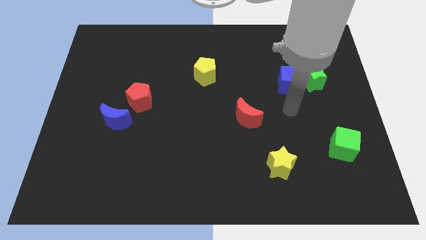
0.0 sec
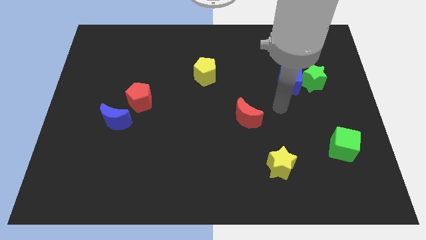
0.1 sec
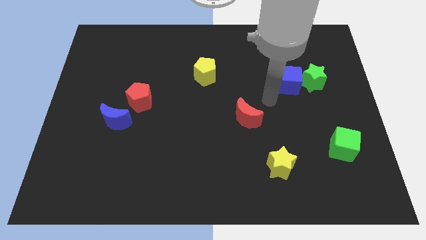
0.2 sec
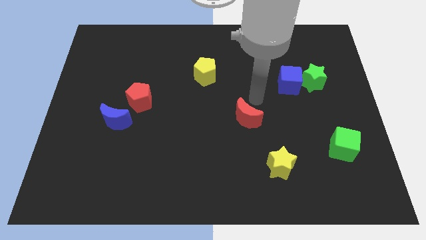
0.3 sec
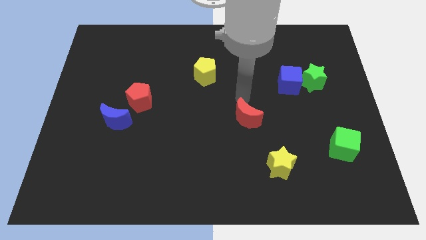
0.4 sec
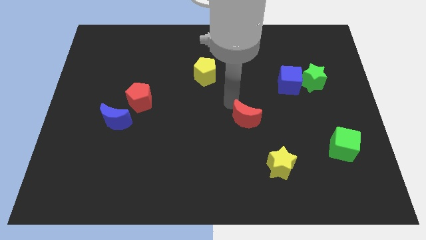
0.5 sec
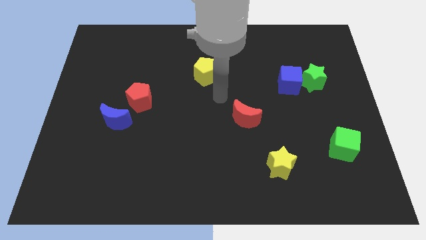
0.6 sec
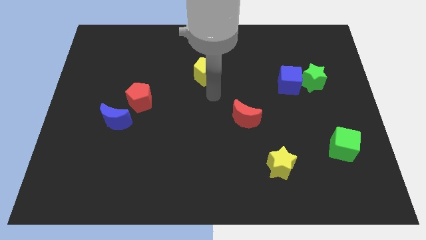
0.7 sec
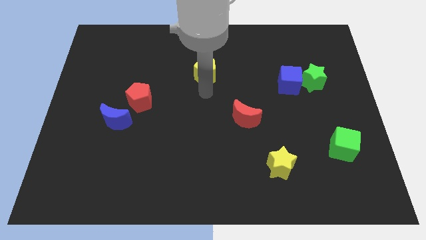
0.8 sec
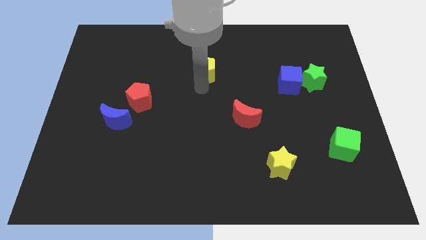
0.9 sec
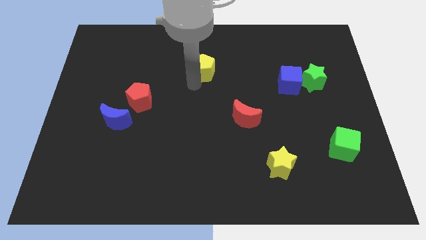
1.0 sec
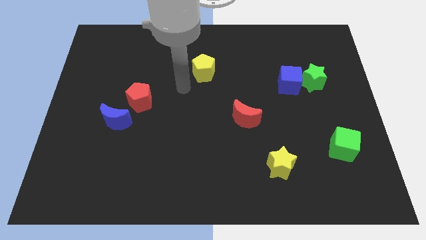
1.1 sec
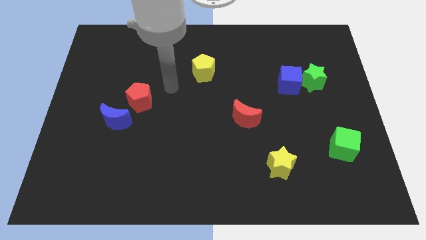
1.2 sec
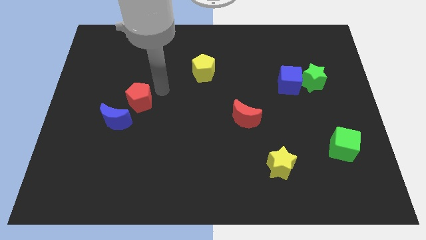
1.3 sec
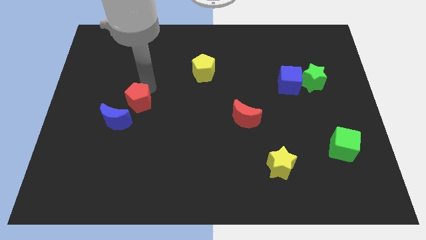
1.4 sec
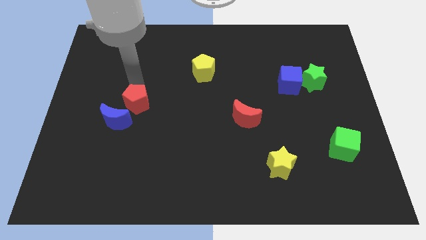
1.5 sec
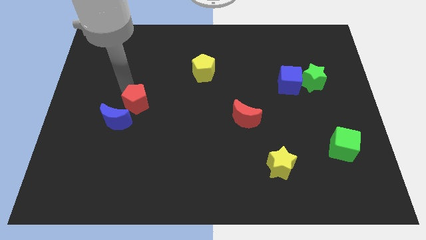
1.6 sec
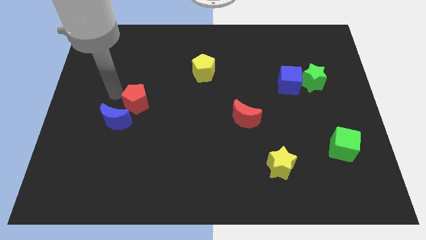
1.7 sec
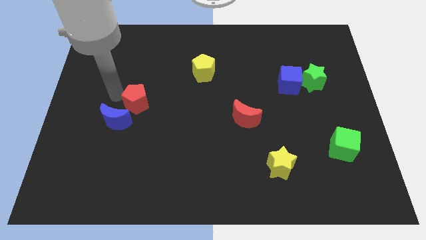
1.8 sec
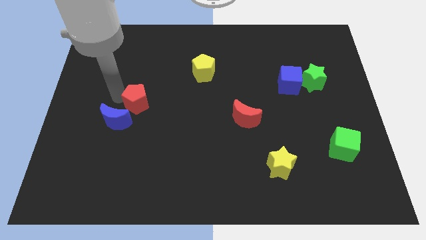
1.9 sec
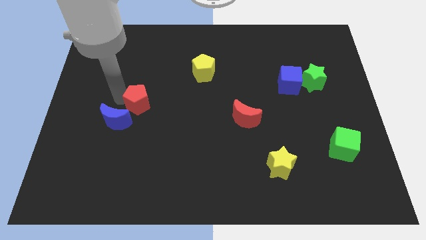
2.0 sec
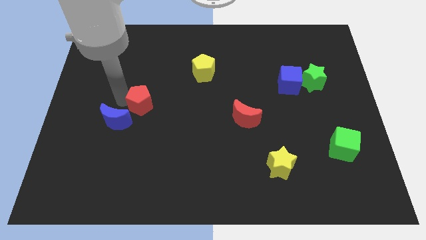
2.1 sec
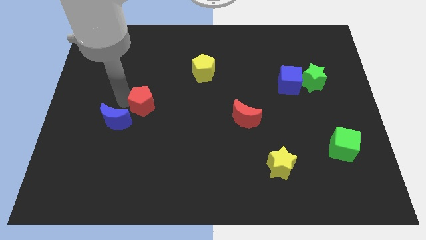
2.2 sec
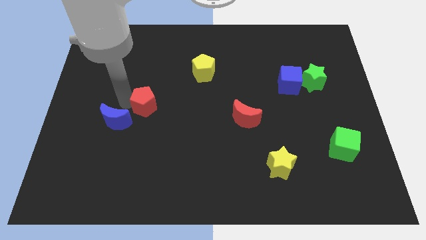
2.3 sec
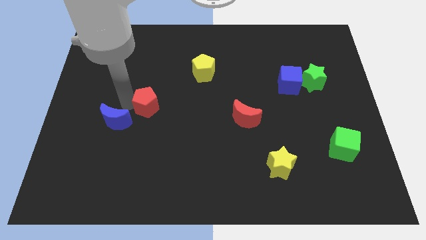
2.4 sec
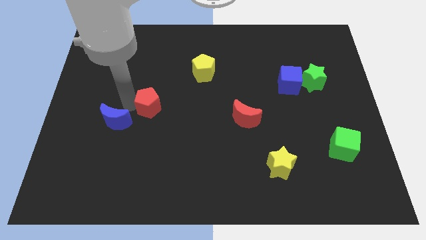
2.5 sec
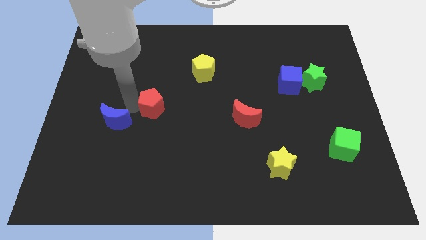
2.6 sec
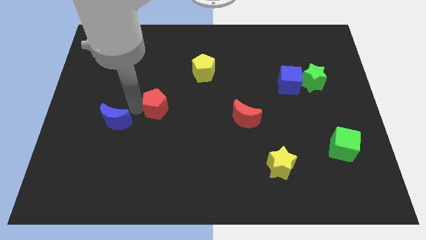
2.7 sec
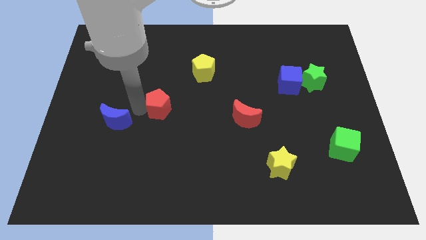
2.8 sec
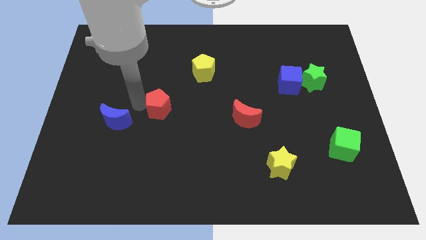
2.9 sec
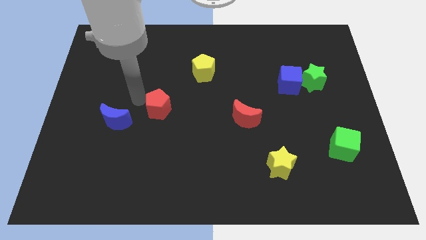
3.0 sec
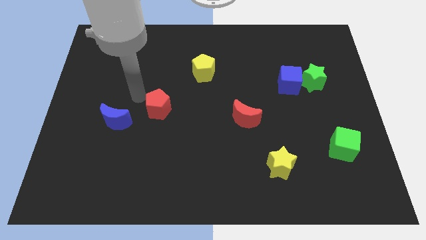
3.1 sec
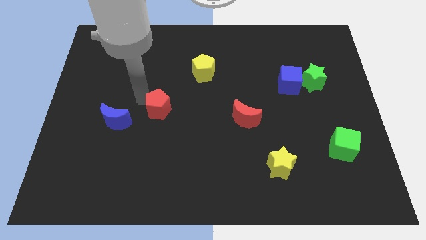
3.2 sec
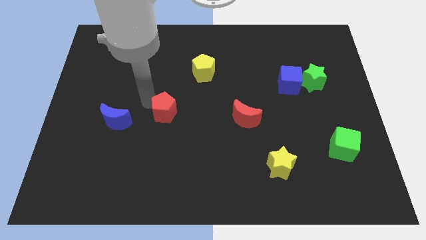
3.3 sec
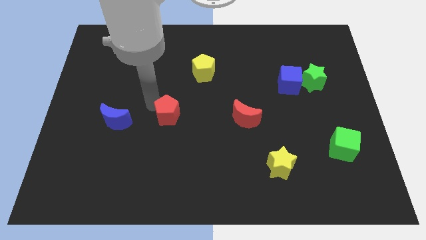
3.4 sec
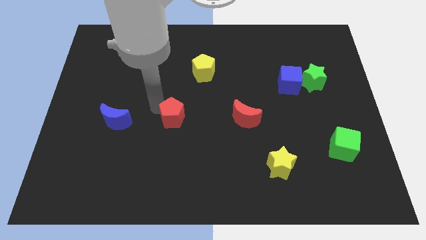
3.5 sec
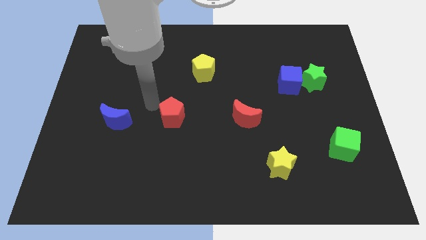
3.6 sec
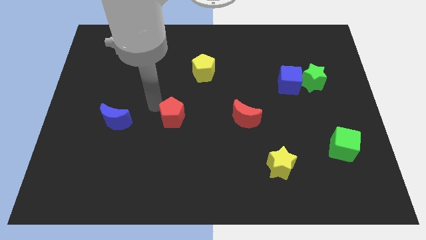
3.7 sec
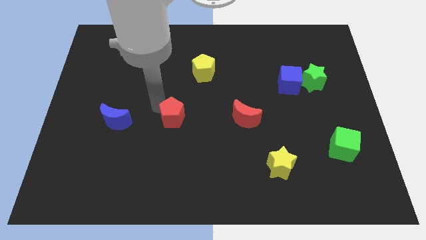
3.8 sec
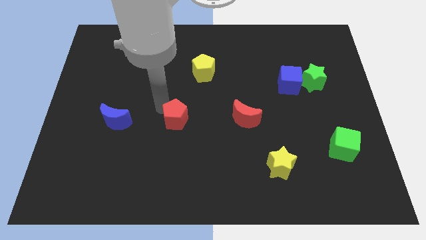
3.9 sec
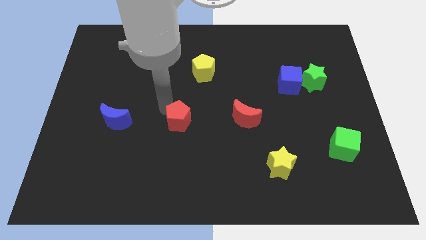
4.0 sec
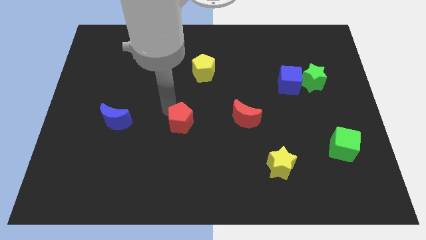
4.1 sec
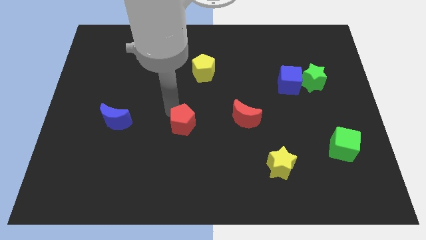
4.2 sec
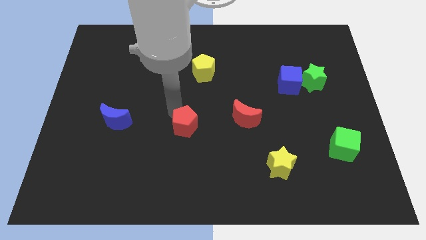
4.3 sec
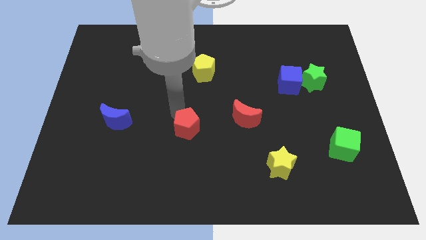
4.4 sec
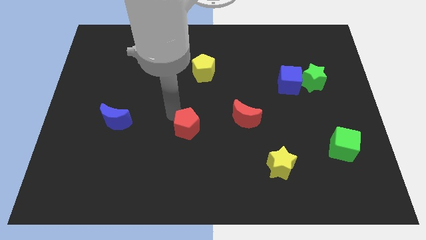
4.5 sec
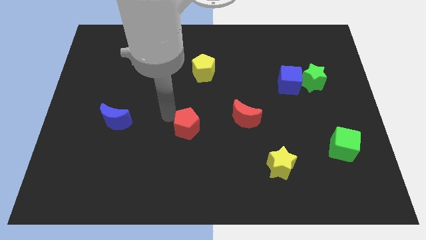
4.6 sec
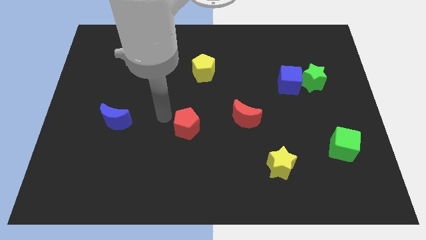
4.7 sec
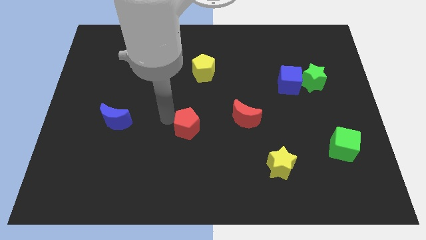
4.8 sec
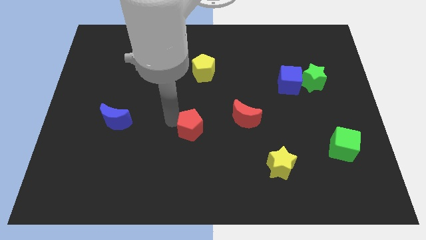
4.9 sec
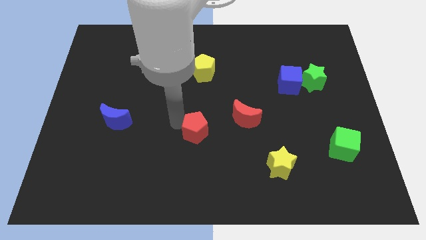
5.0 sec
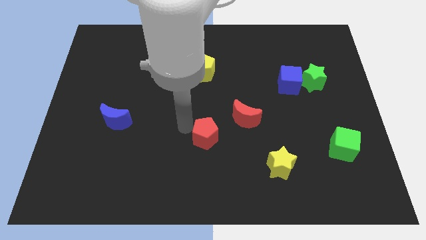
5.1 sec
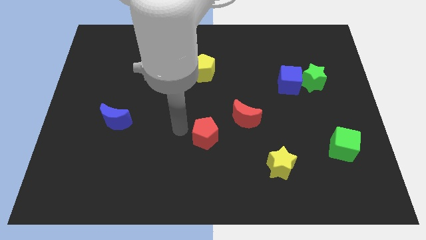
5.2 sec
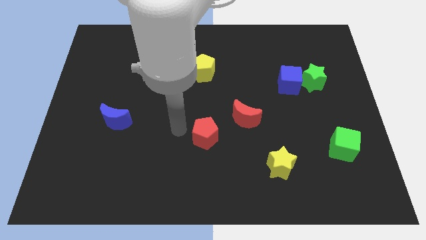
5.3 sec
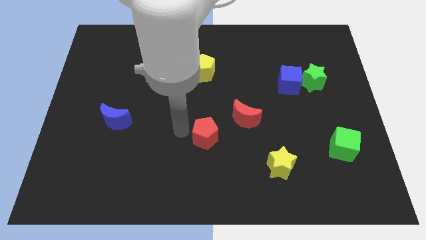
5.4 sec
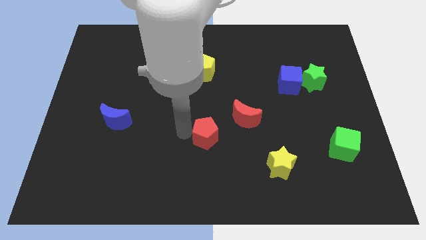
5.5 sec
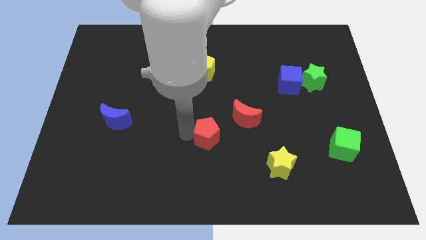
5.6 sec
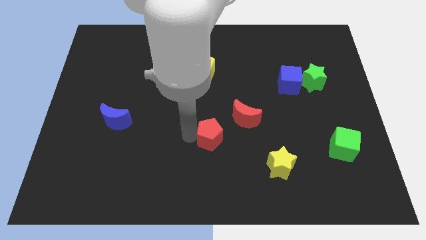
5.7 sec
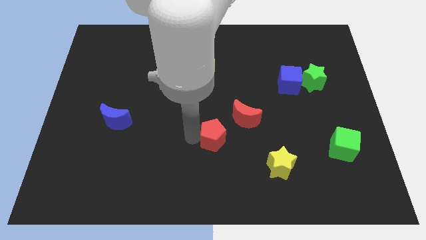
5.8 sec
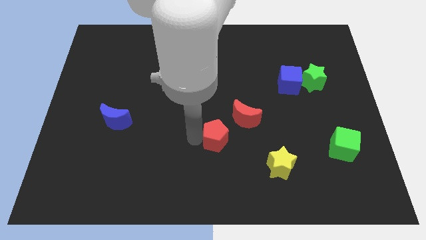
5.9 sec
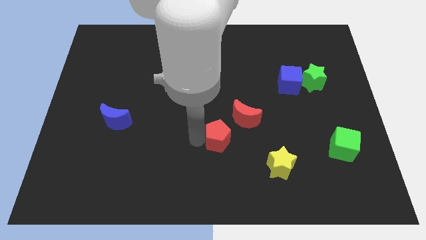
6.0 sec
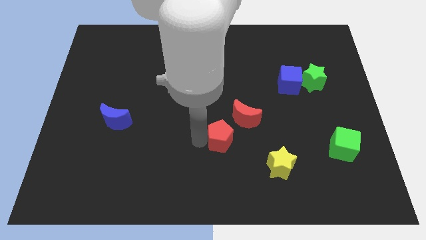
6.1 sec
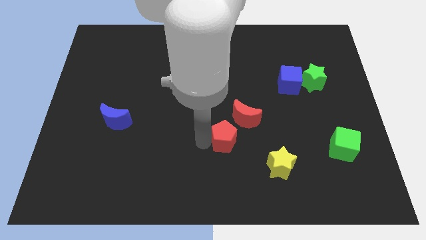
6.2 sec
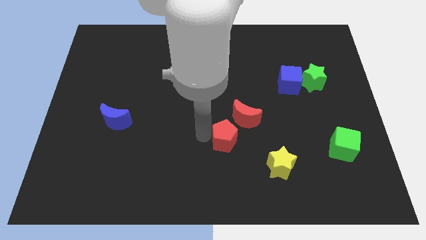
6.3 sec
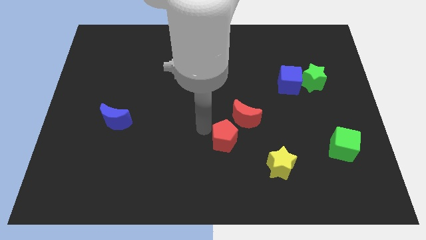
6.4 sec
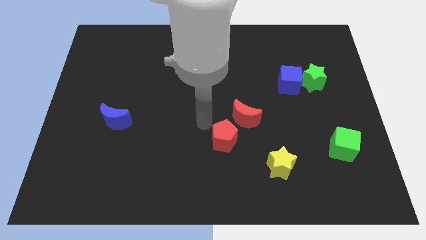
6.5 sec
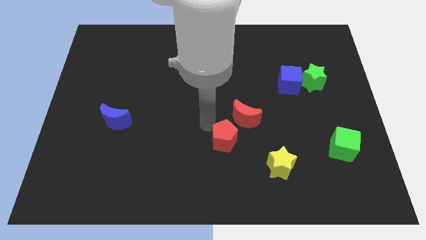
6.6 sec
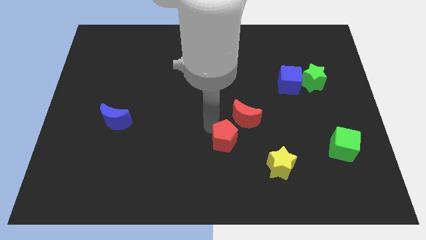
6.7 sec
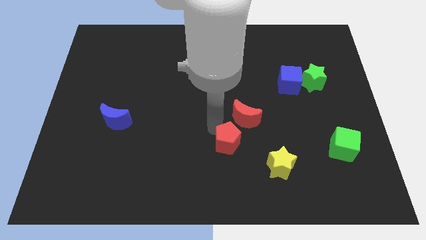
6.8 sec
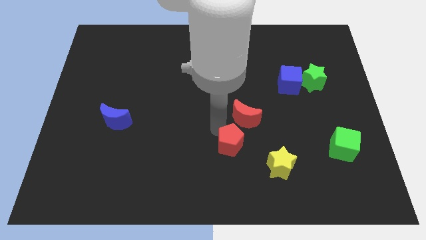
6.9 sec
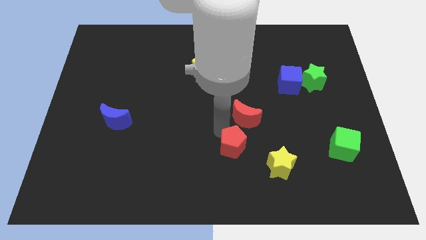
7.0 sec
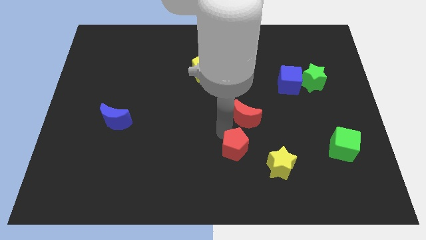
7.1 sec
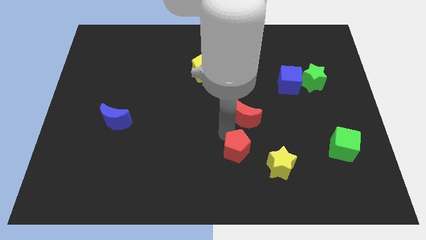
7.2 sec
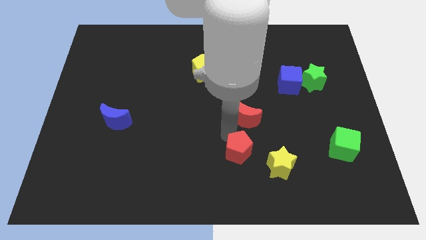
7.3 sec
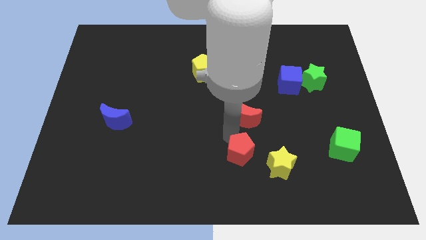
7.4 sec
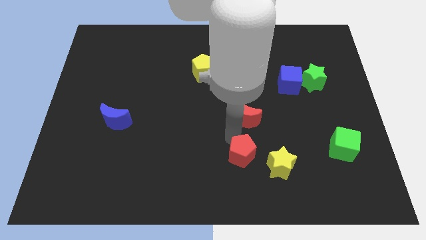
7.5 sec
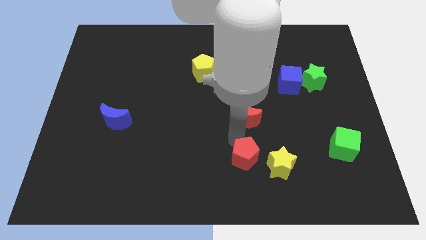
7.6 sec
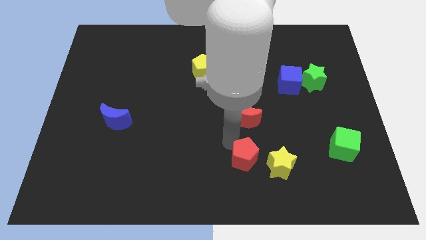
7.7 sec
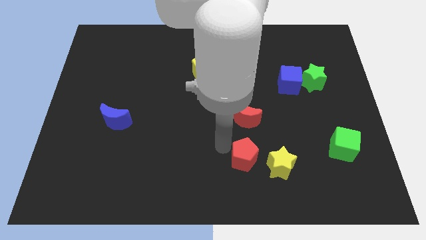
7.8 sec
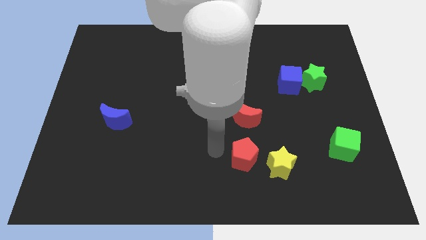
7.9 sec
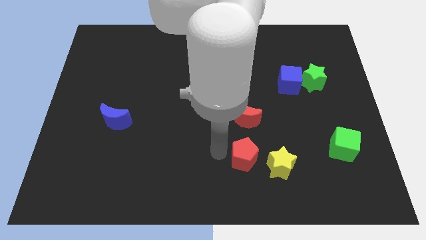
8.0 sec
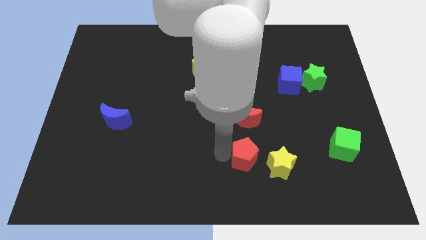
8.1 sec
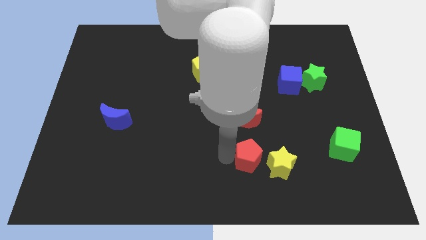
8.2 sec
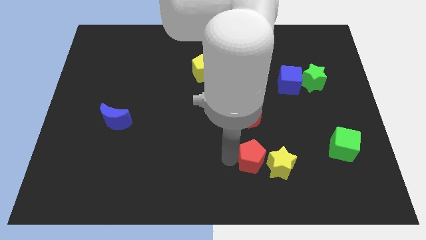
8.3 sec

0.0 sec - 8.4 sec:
move the red pentagon towards the yellow star
